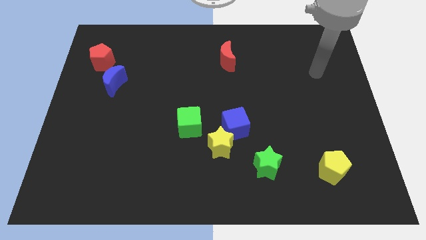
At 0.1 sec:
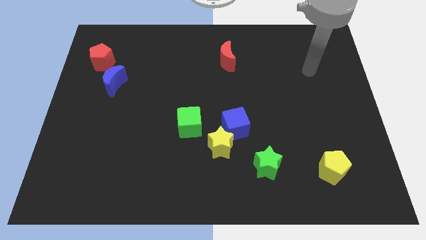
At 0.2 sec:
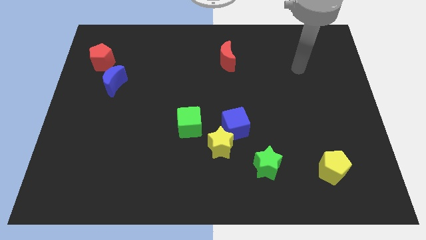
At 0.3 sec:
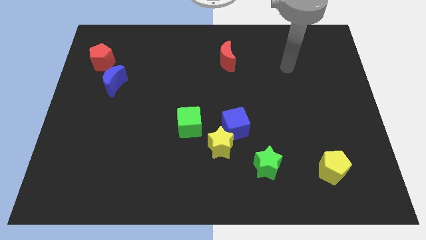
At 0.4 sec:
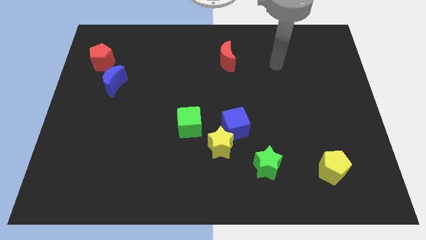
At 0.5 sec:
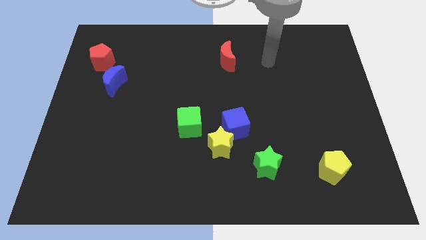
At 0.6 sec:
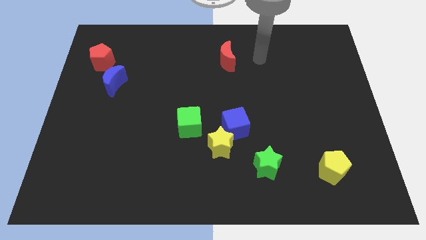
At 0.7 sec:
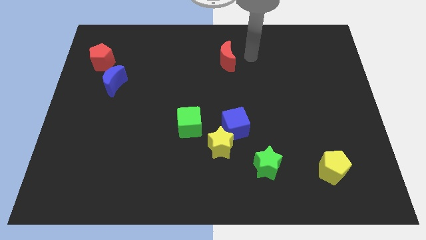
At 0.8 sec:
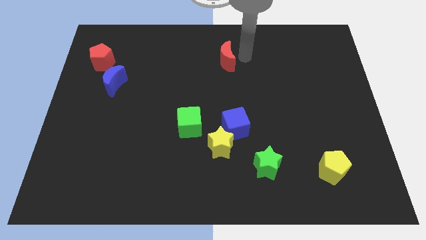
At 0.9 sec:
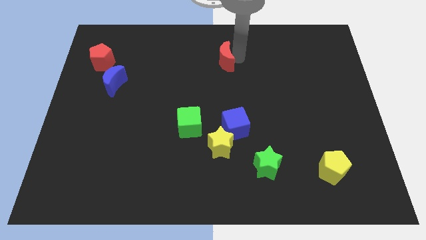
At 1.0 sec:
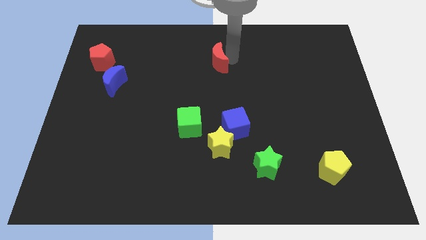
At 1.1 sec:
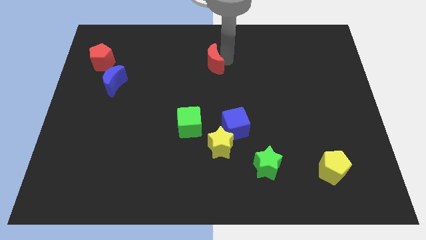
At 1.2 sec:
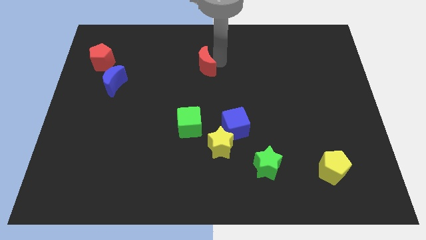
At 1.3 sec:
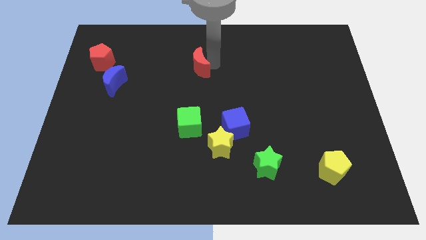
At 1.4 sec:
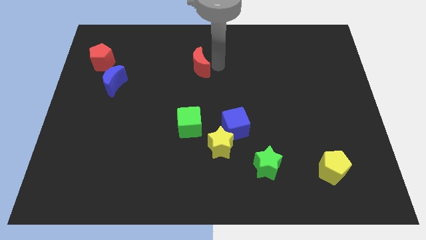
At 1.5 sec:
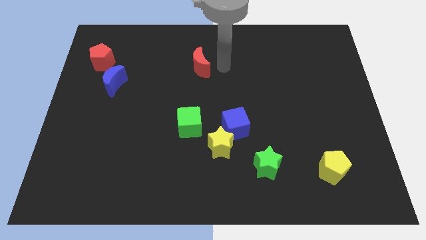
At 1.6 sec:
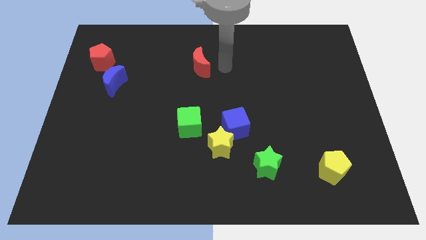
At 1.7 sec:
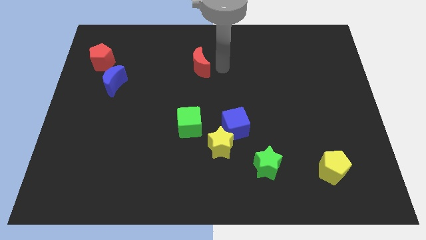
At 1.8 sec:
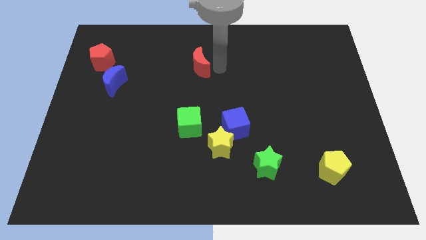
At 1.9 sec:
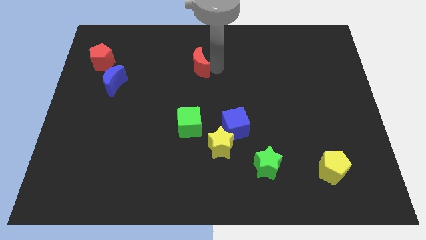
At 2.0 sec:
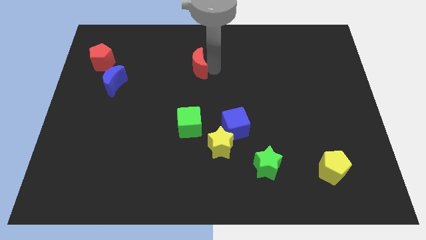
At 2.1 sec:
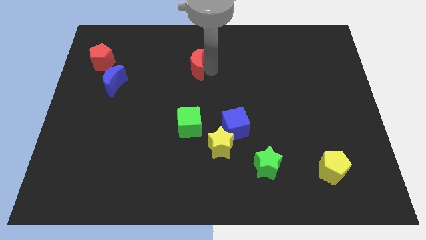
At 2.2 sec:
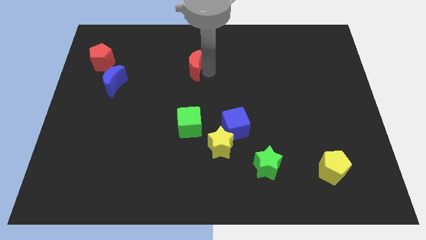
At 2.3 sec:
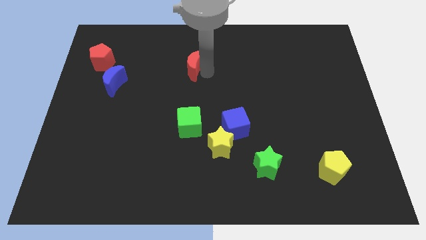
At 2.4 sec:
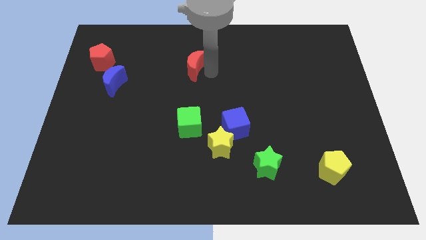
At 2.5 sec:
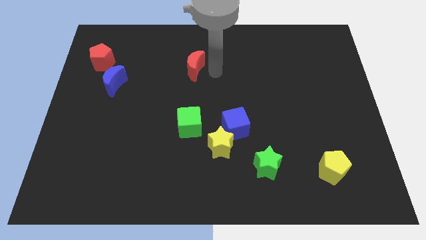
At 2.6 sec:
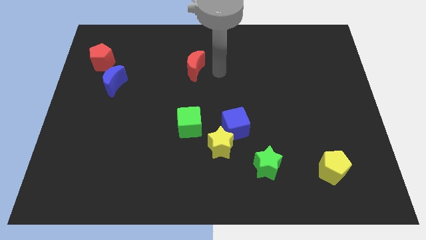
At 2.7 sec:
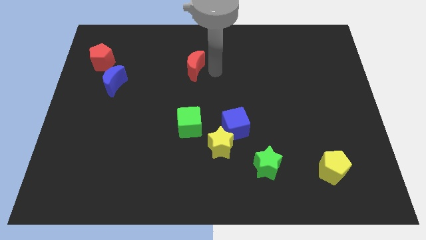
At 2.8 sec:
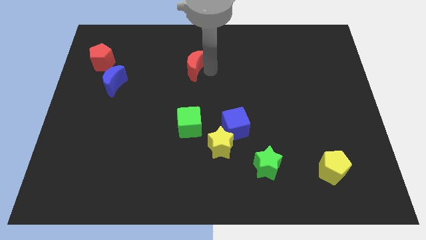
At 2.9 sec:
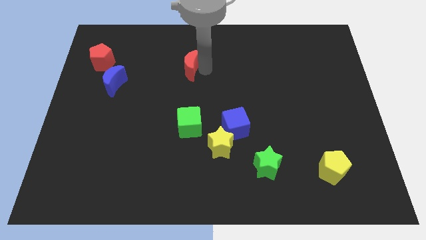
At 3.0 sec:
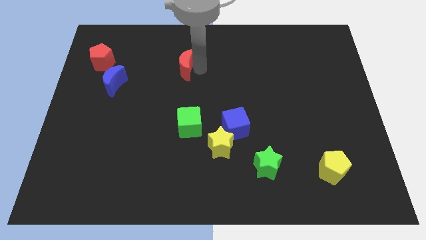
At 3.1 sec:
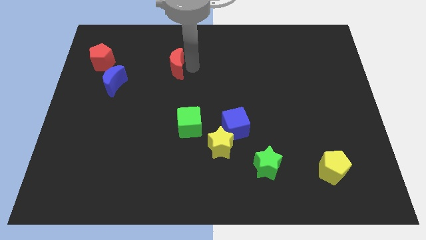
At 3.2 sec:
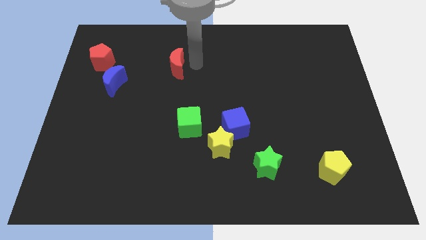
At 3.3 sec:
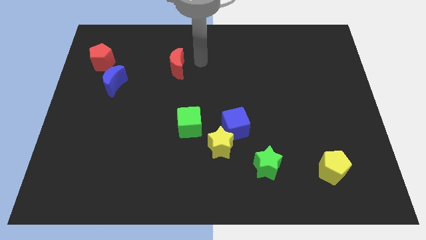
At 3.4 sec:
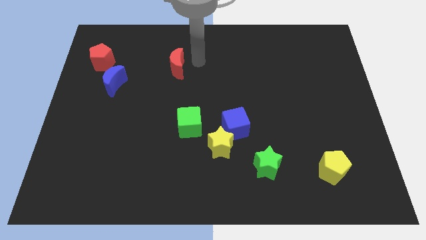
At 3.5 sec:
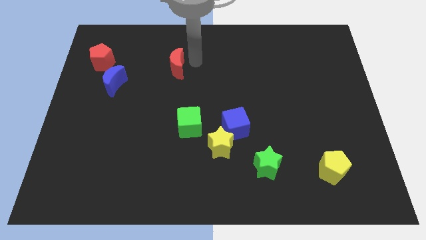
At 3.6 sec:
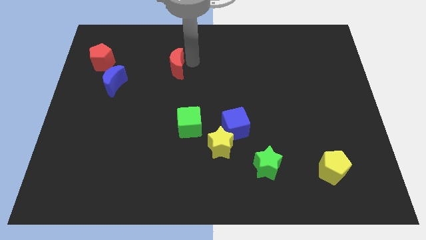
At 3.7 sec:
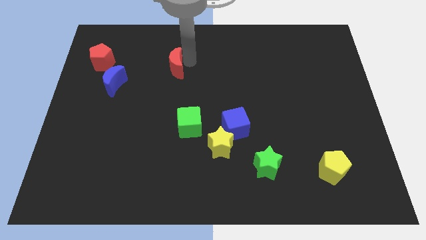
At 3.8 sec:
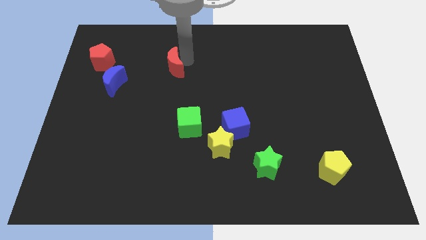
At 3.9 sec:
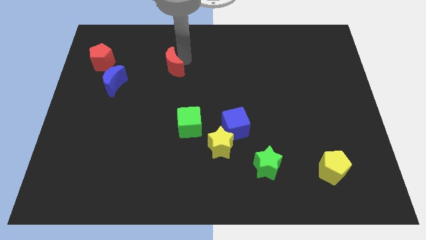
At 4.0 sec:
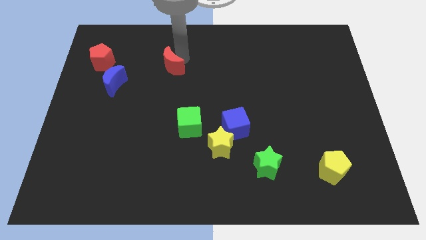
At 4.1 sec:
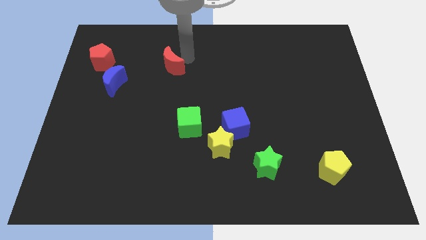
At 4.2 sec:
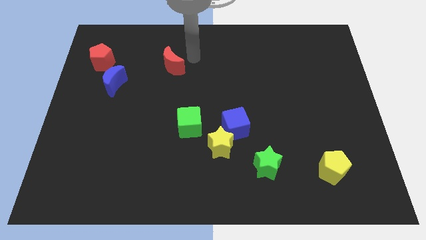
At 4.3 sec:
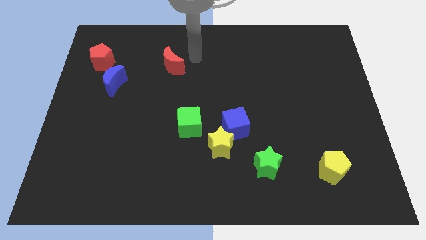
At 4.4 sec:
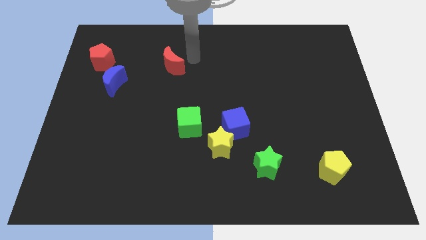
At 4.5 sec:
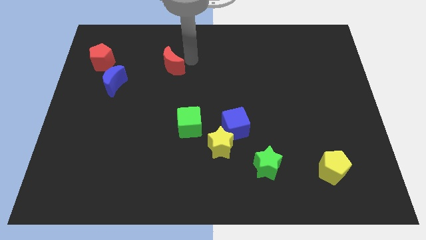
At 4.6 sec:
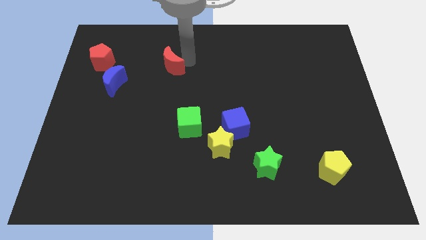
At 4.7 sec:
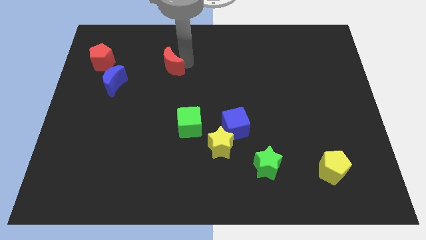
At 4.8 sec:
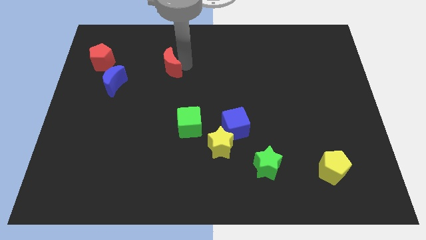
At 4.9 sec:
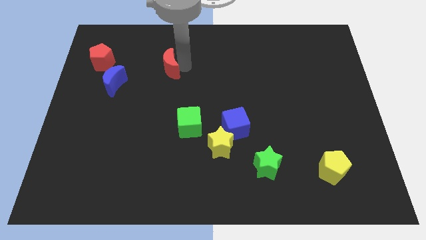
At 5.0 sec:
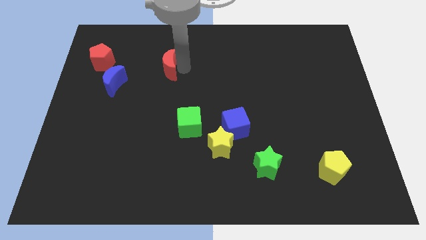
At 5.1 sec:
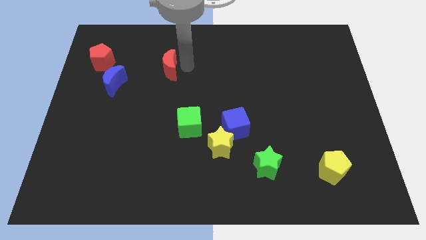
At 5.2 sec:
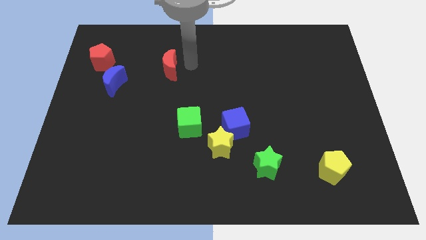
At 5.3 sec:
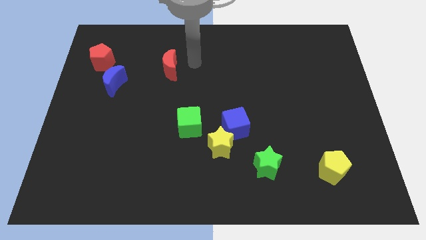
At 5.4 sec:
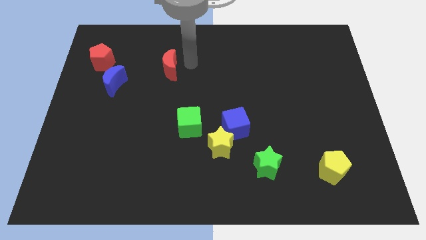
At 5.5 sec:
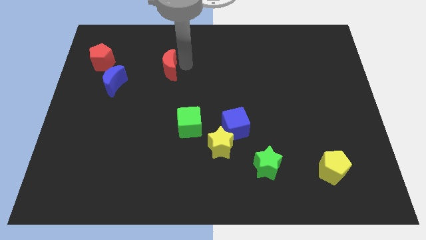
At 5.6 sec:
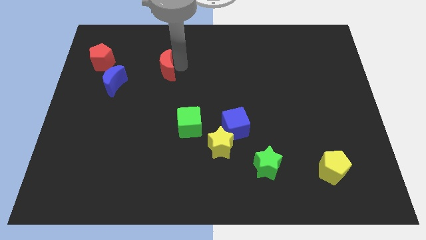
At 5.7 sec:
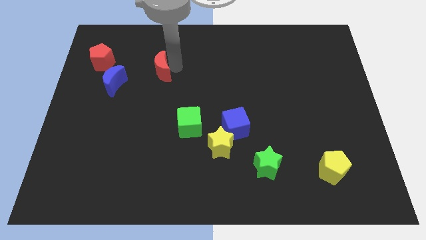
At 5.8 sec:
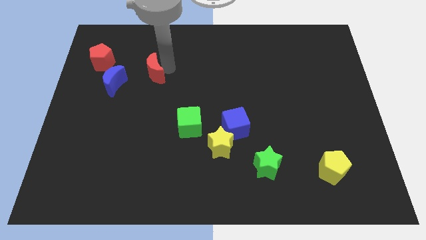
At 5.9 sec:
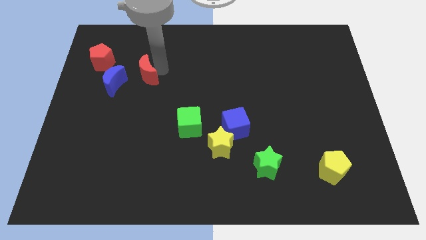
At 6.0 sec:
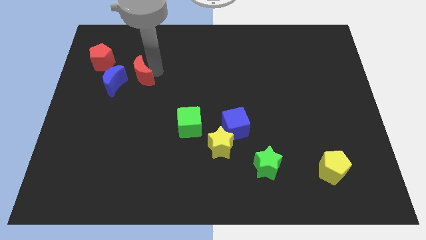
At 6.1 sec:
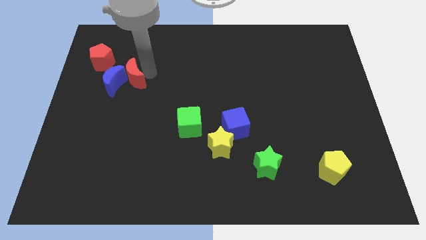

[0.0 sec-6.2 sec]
push the red moon to the blue moon

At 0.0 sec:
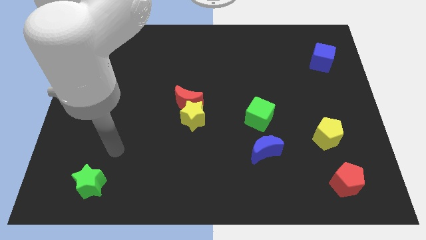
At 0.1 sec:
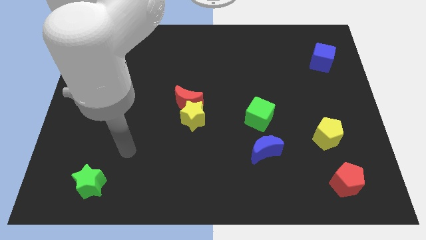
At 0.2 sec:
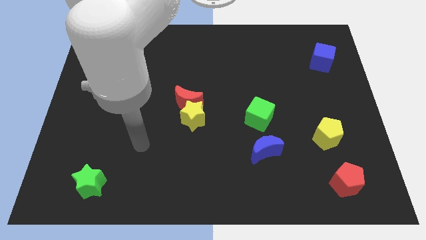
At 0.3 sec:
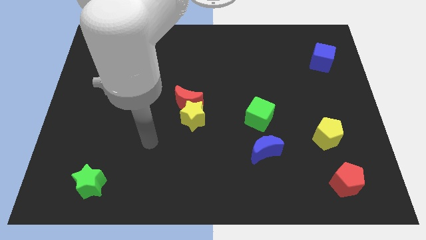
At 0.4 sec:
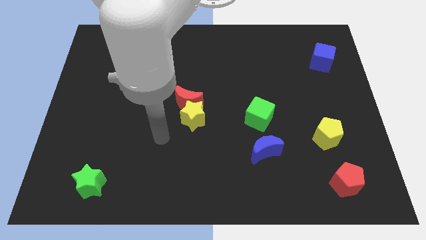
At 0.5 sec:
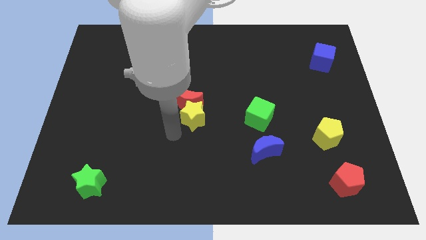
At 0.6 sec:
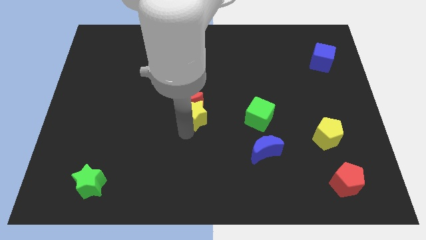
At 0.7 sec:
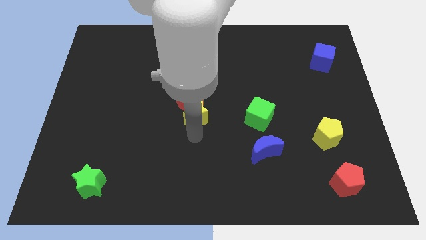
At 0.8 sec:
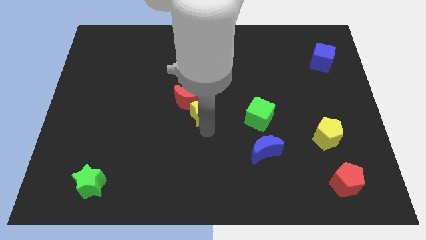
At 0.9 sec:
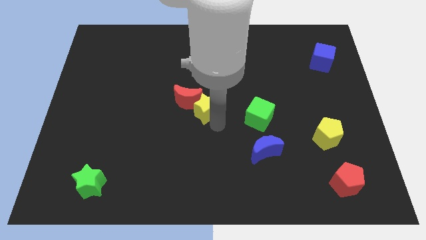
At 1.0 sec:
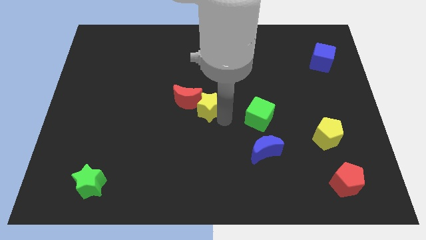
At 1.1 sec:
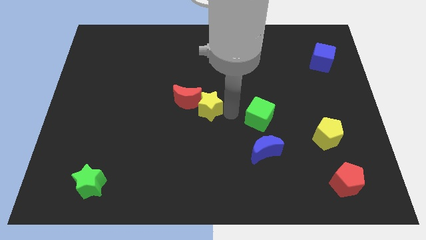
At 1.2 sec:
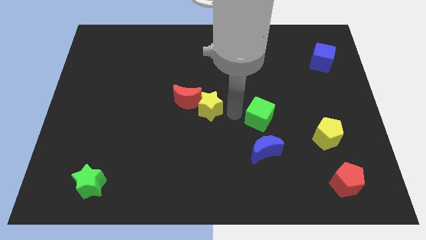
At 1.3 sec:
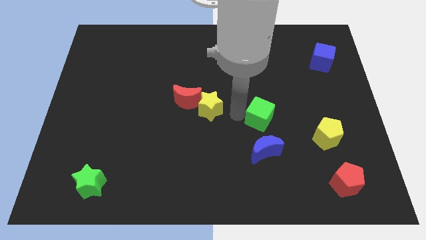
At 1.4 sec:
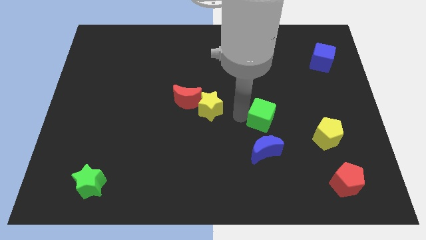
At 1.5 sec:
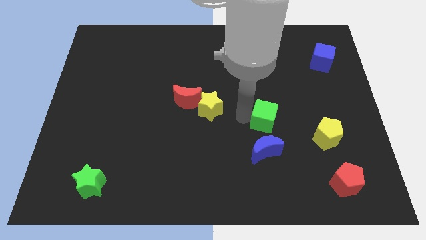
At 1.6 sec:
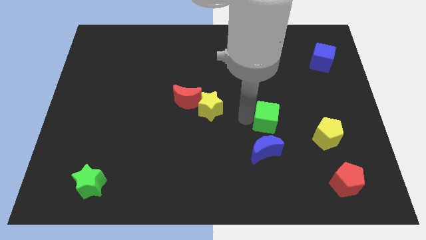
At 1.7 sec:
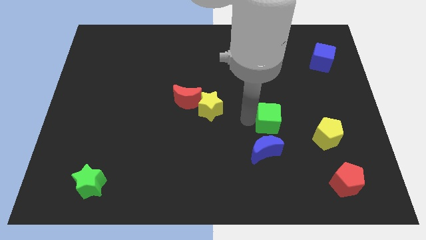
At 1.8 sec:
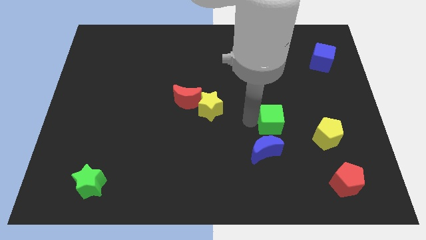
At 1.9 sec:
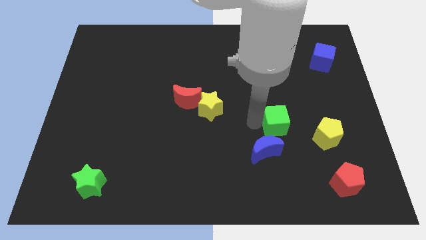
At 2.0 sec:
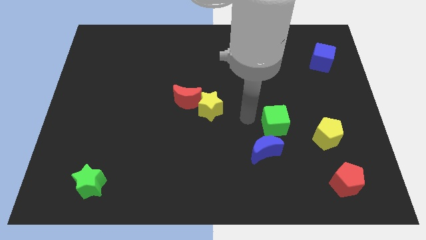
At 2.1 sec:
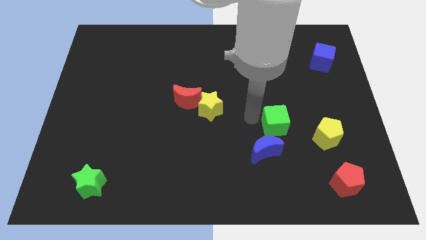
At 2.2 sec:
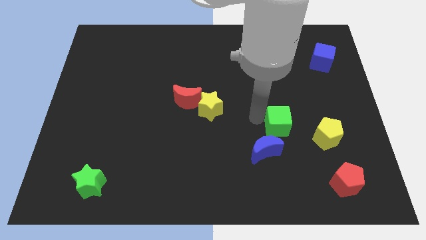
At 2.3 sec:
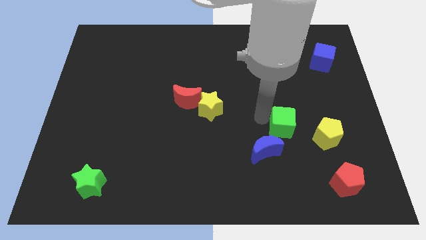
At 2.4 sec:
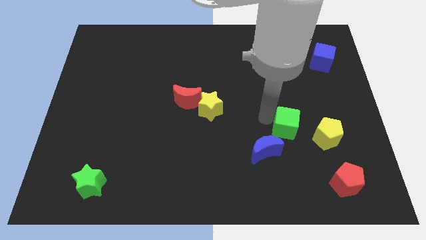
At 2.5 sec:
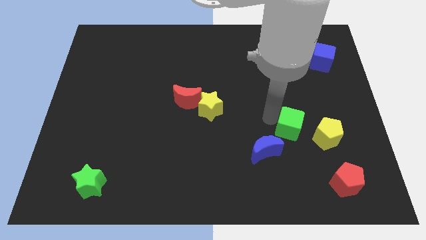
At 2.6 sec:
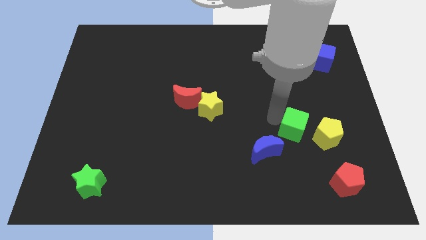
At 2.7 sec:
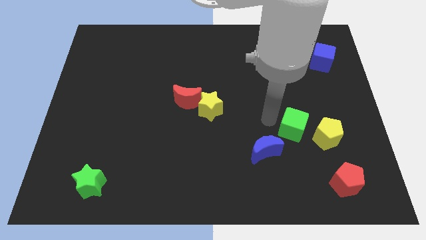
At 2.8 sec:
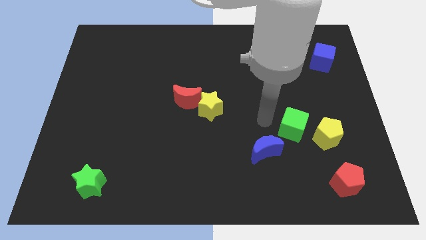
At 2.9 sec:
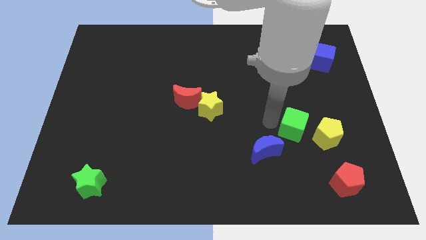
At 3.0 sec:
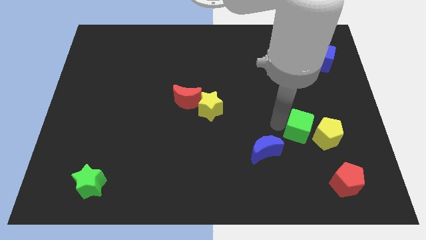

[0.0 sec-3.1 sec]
push the green cube to the yellow pentagon
